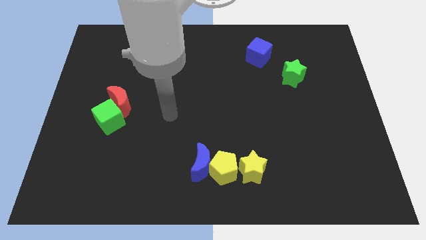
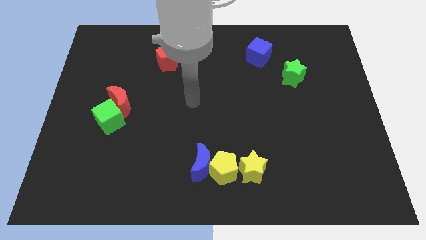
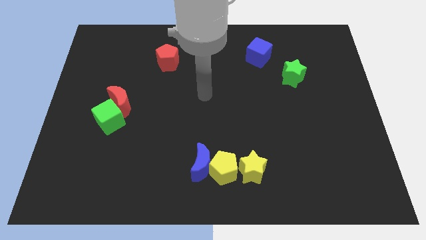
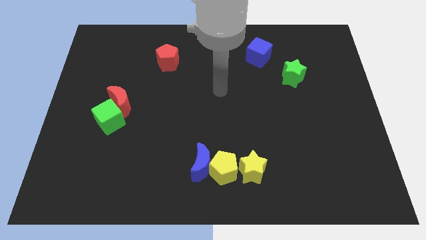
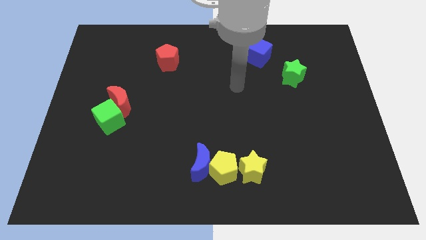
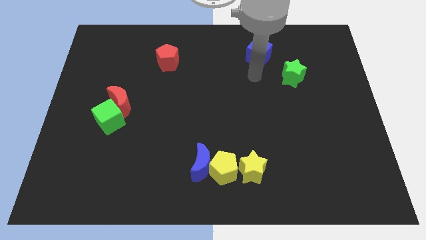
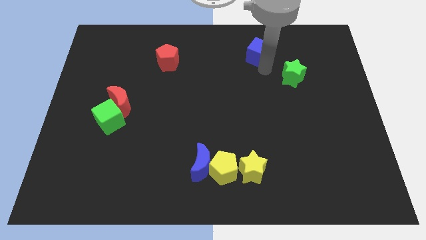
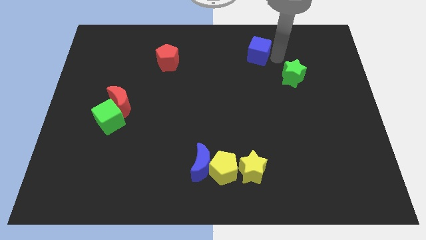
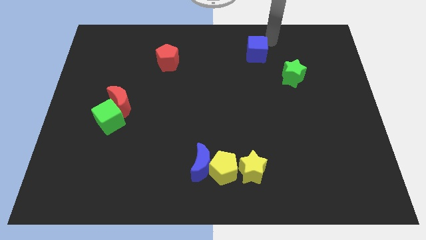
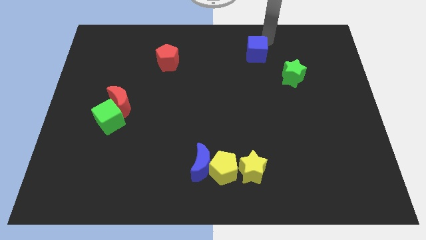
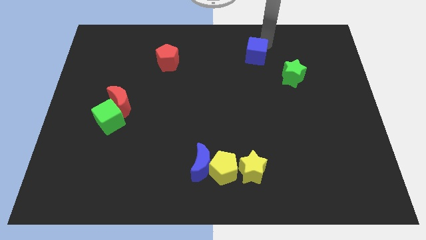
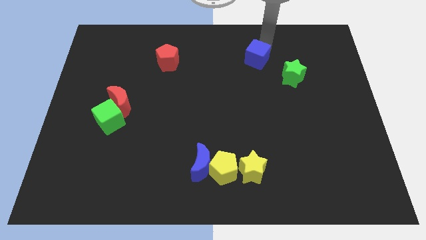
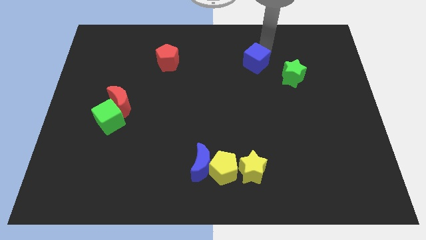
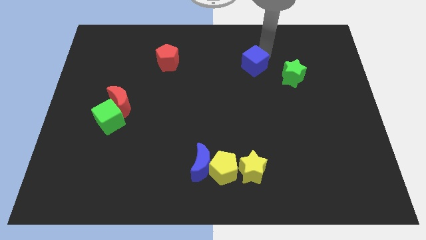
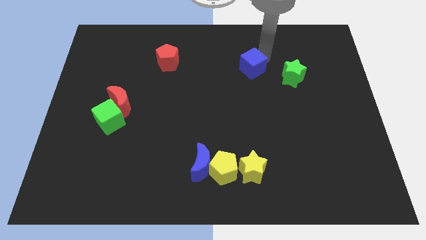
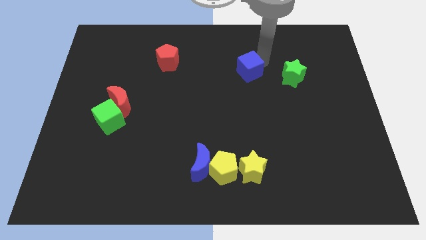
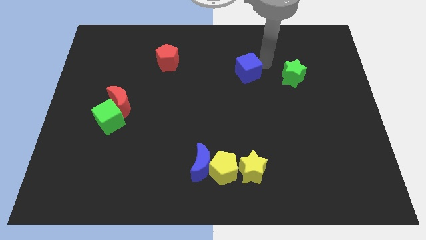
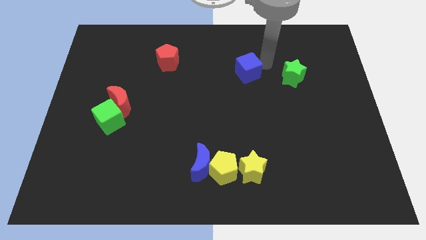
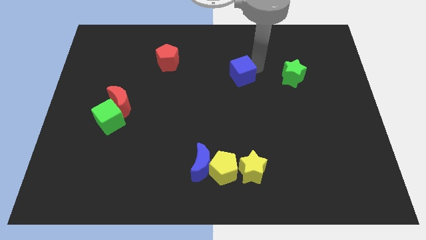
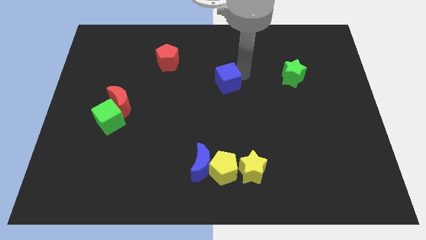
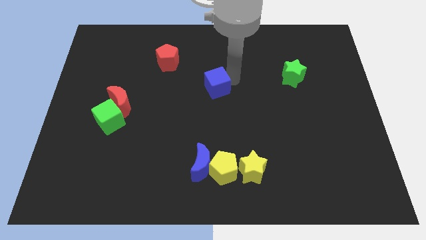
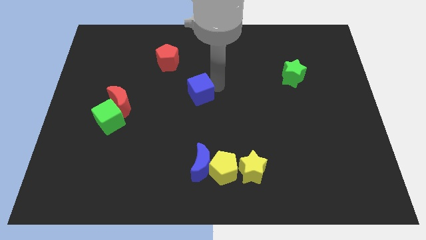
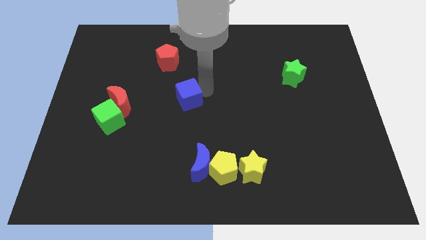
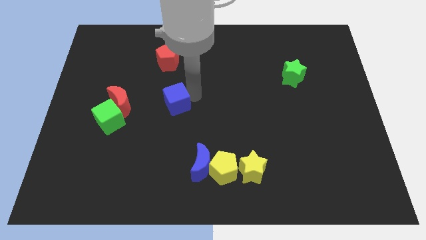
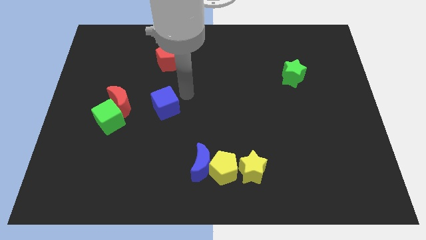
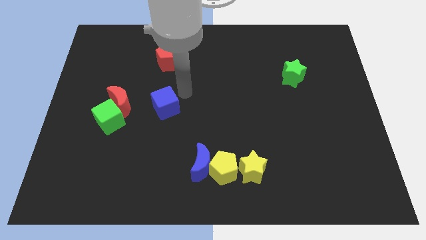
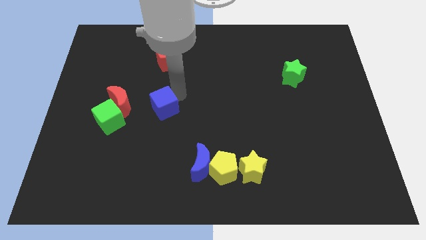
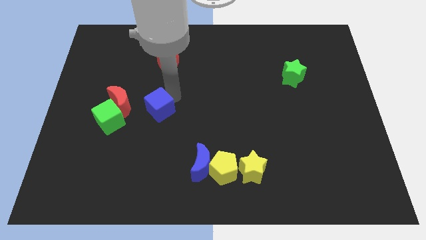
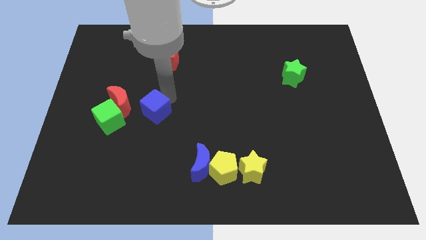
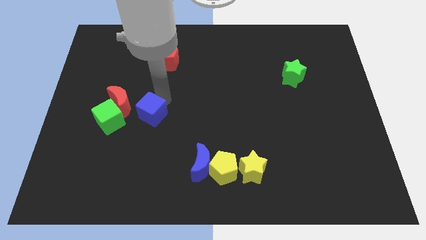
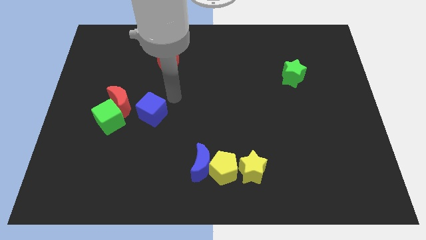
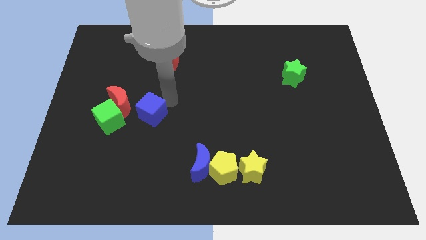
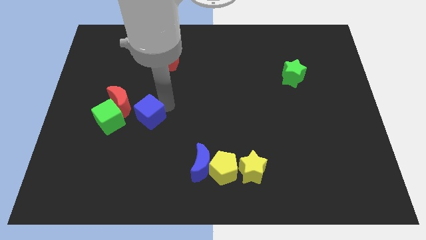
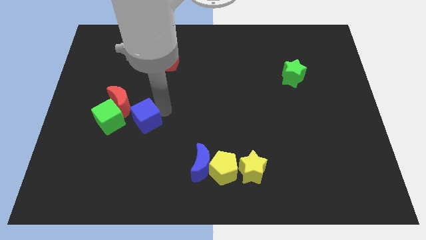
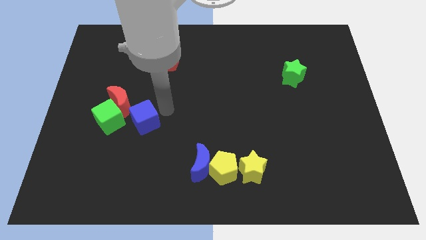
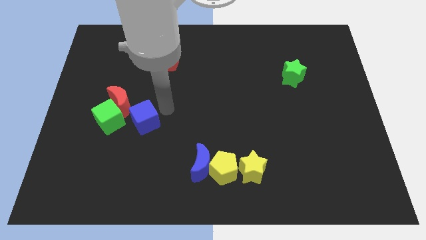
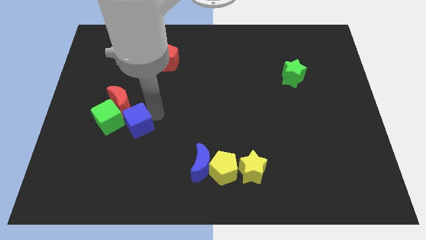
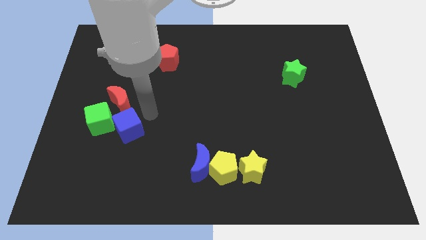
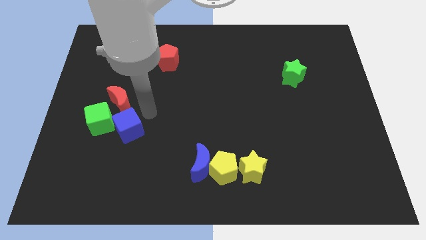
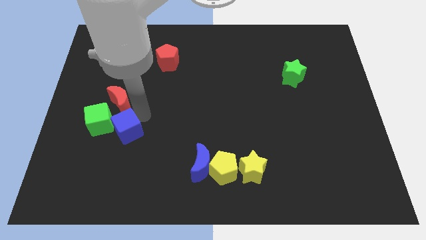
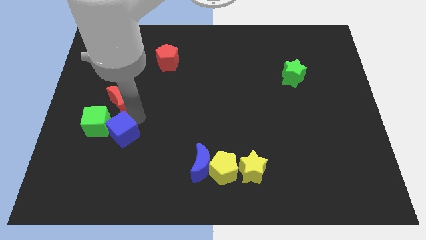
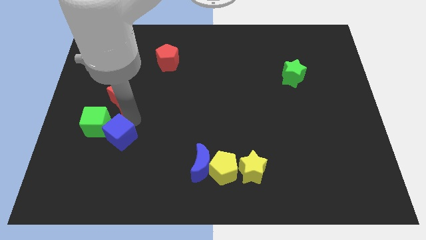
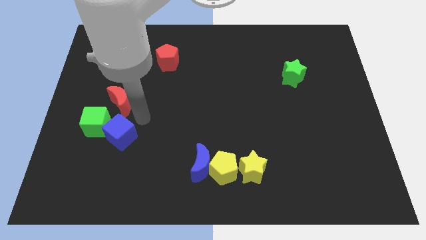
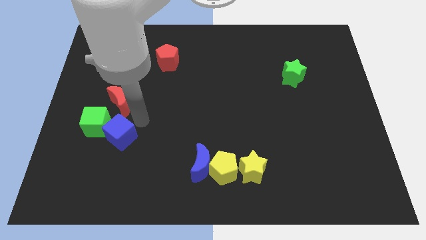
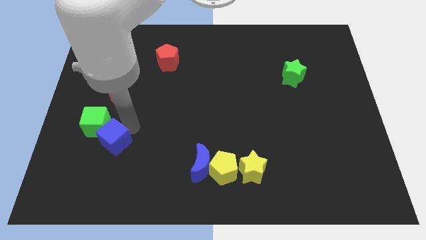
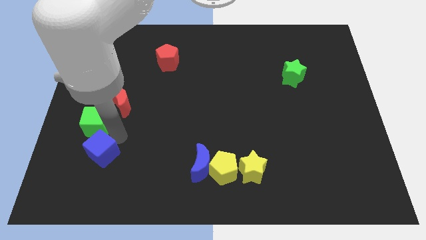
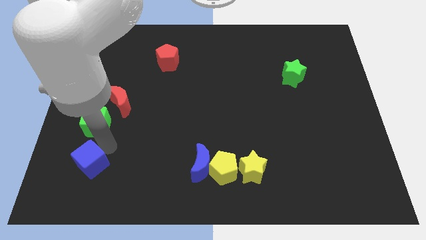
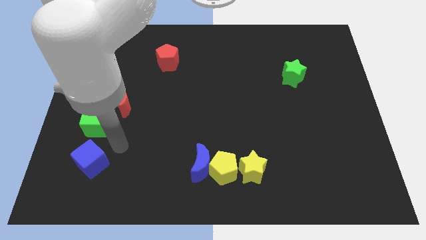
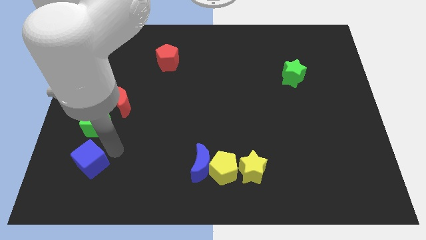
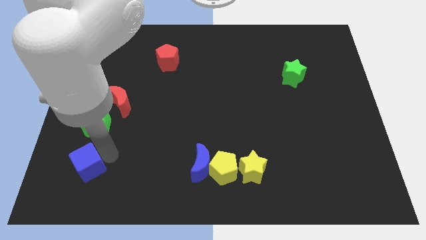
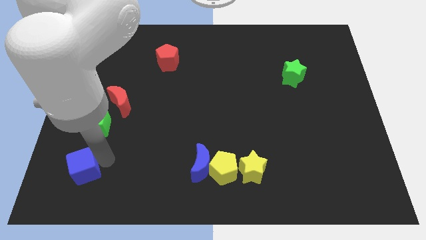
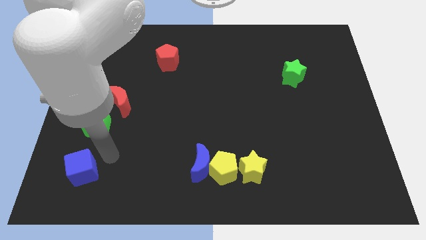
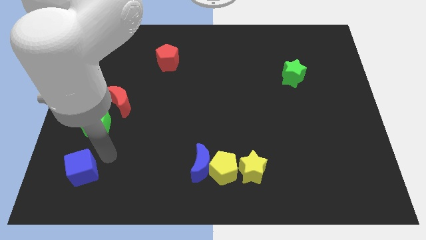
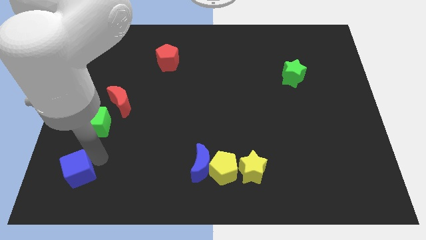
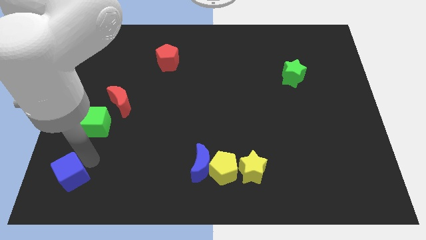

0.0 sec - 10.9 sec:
push the blue cube to the bottom left

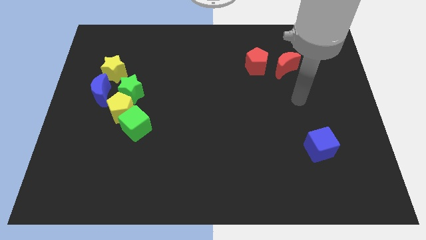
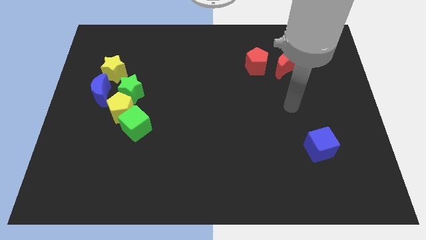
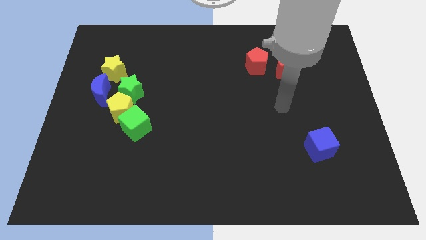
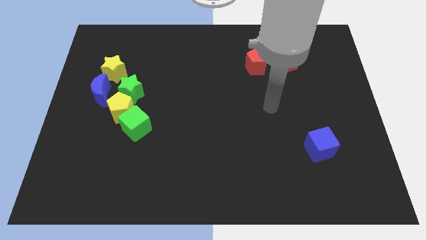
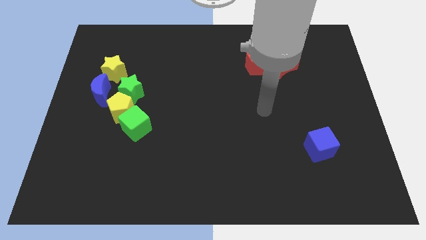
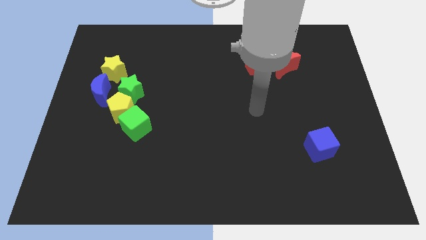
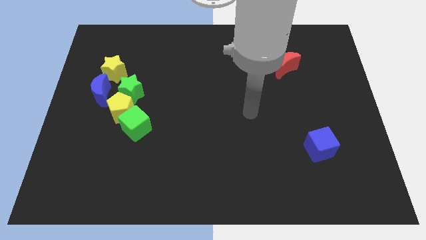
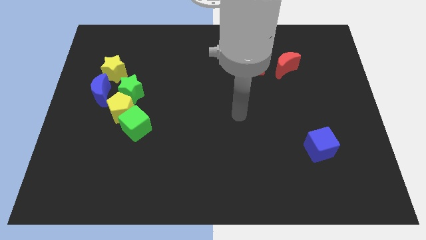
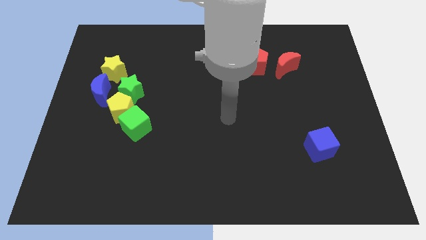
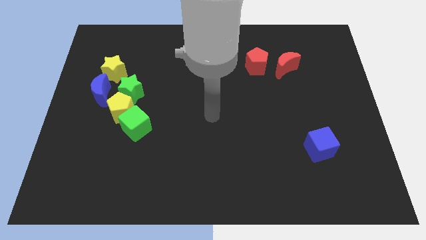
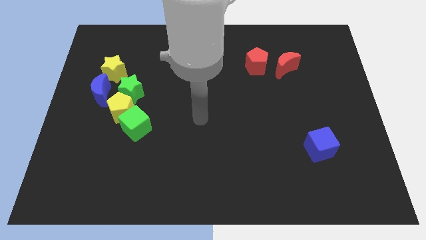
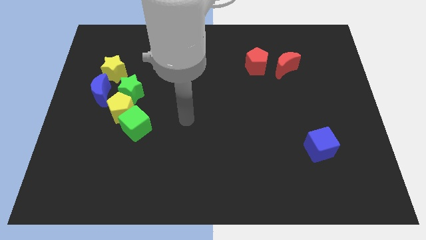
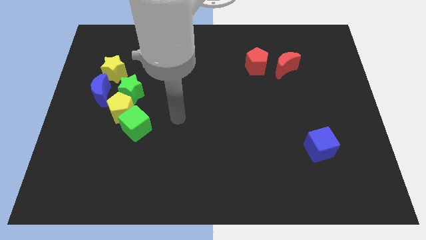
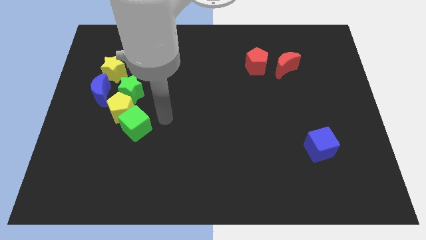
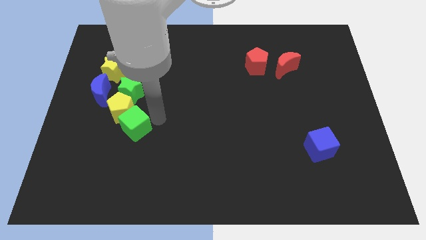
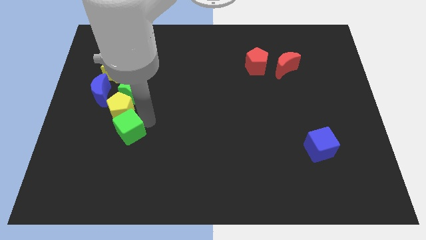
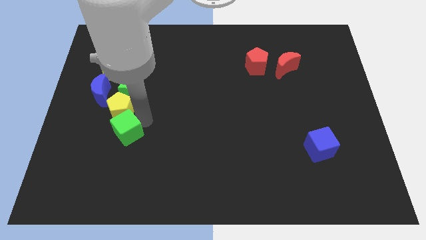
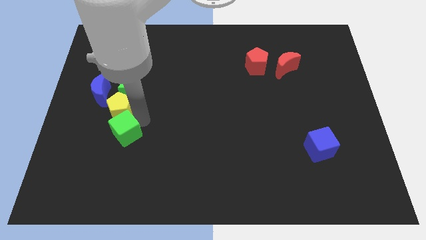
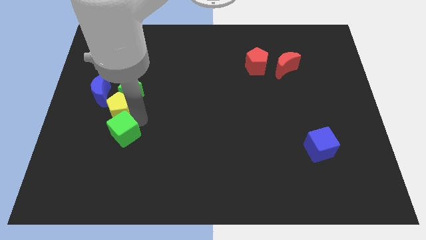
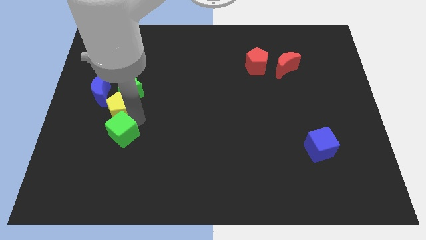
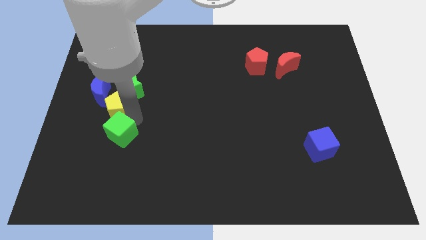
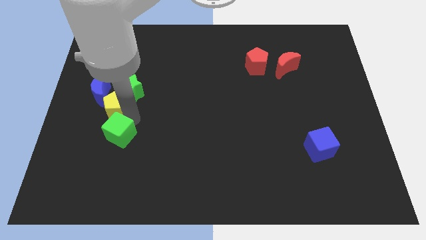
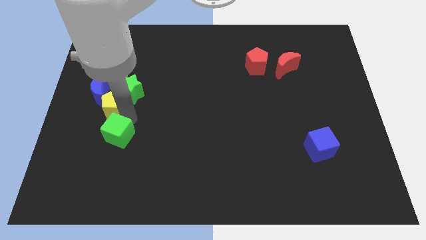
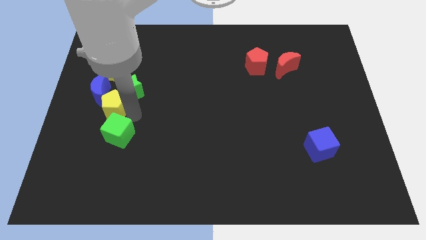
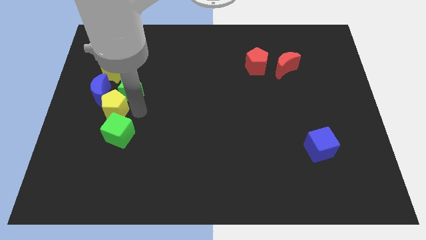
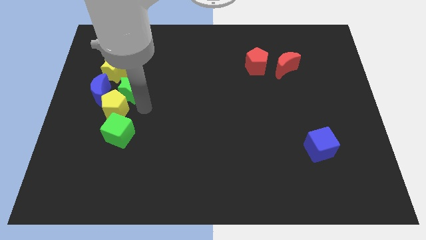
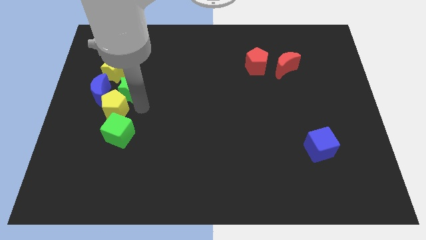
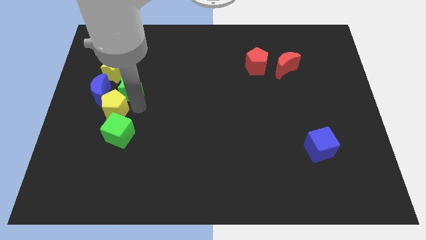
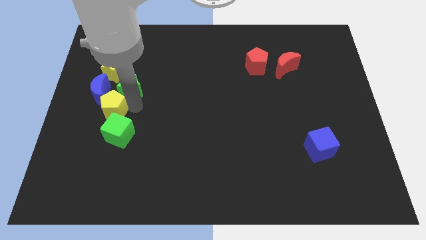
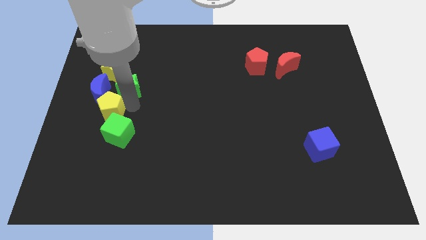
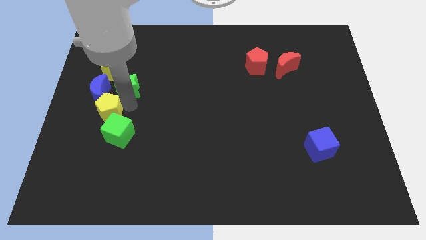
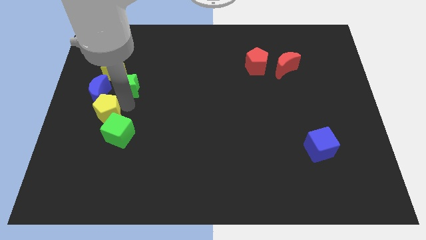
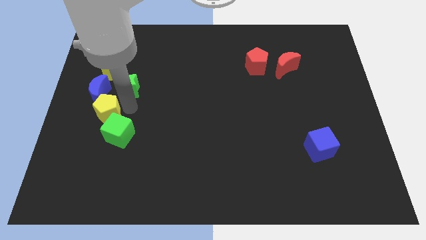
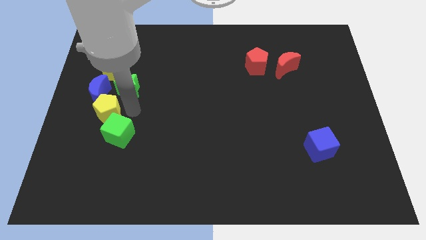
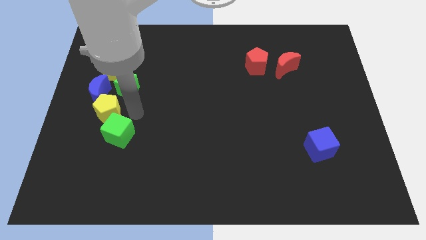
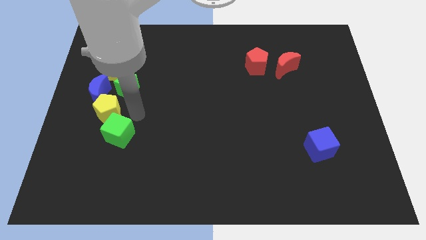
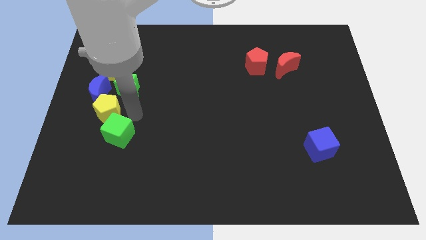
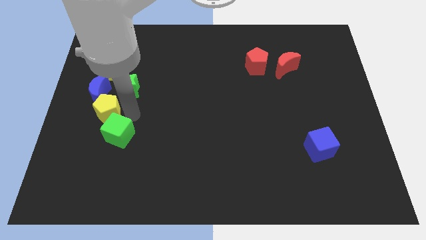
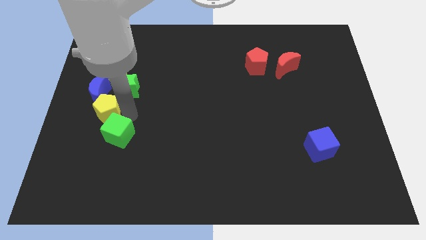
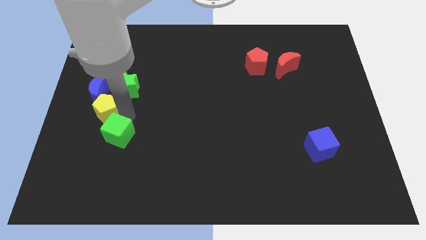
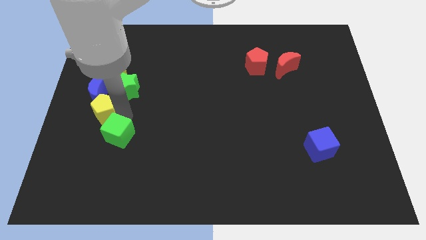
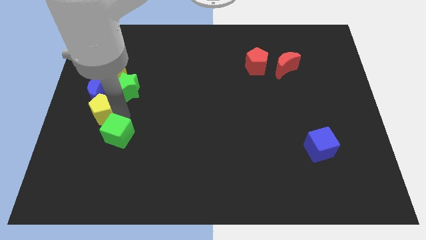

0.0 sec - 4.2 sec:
slide the yellow pentagon to the left side
